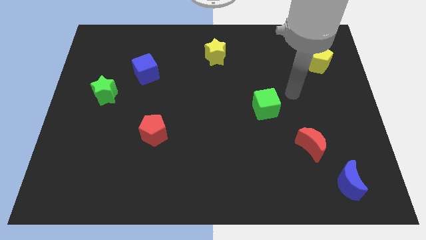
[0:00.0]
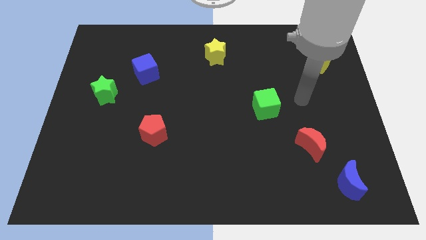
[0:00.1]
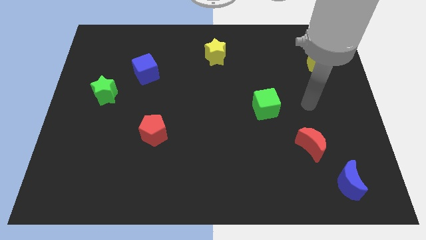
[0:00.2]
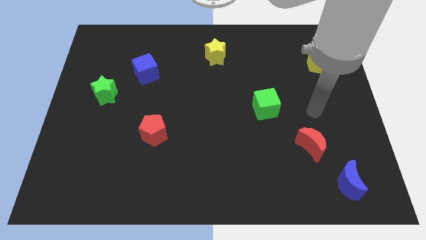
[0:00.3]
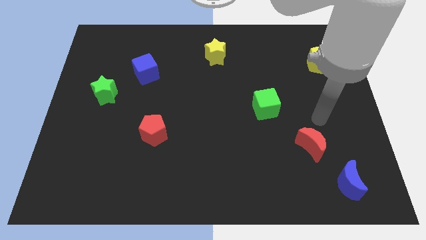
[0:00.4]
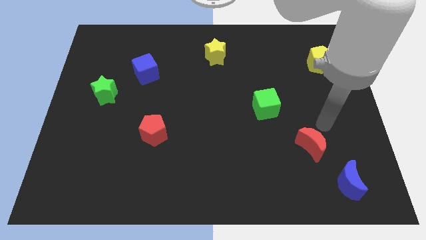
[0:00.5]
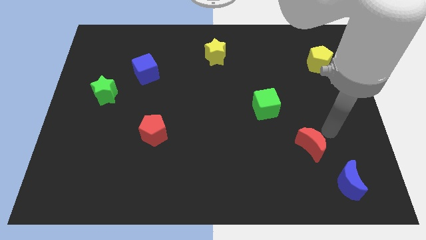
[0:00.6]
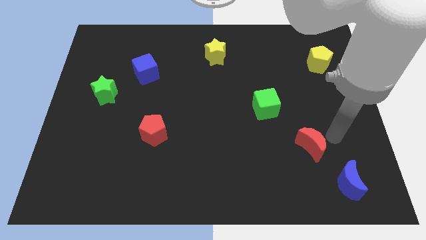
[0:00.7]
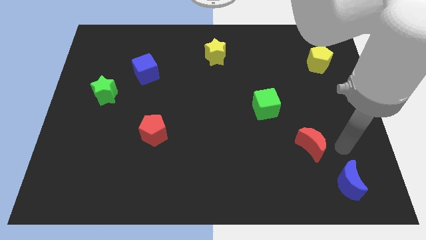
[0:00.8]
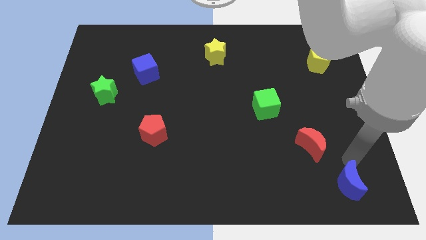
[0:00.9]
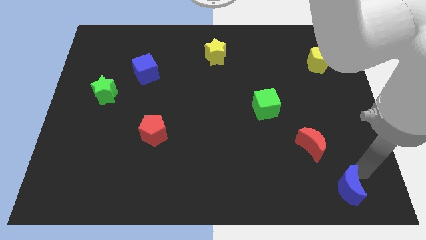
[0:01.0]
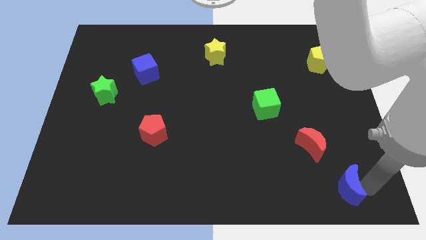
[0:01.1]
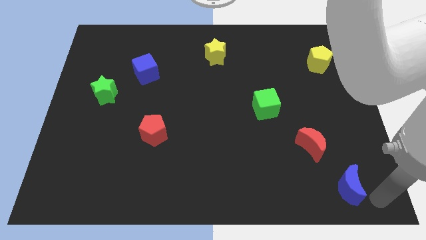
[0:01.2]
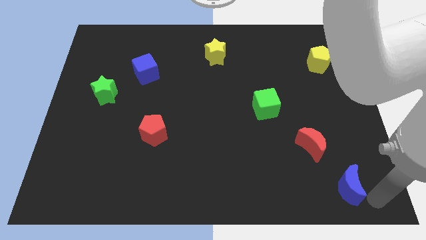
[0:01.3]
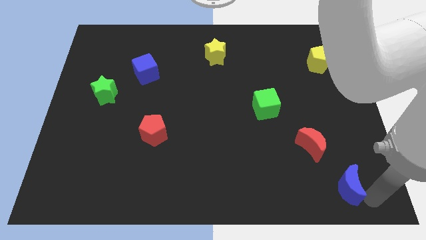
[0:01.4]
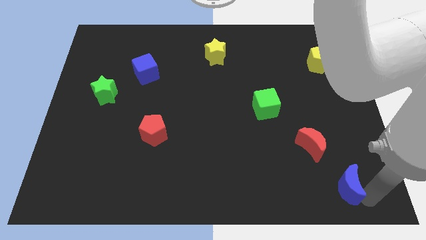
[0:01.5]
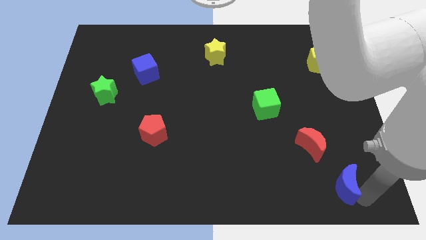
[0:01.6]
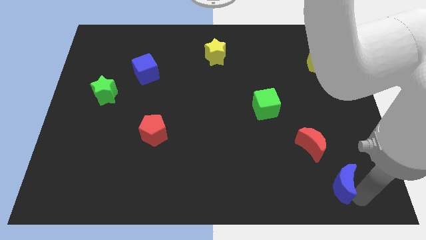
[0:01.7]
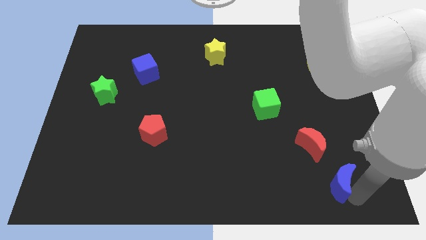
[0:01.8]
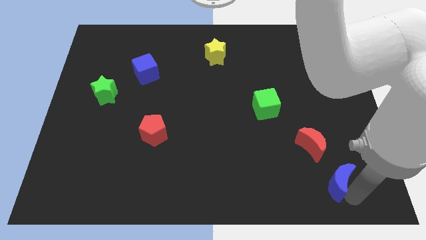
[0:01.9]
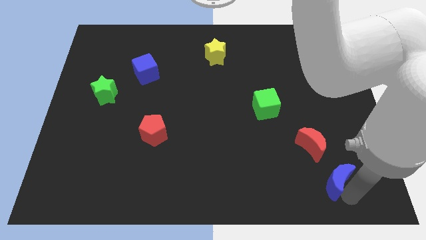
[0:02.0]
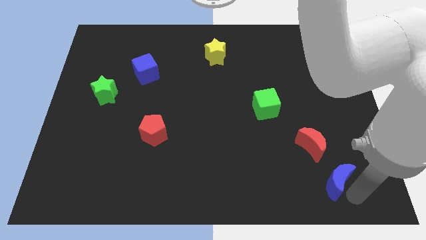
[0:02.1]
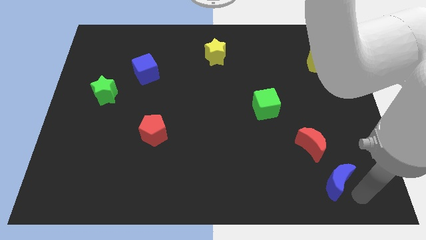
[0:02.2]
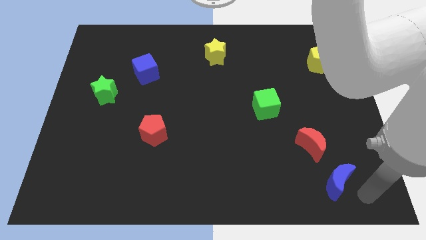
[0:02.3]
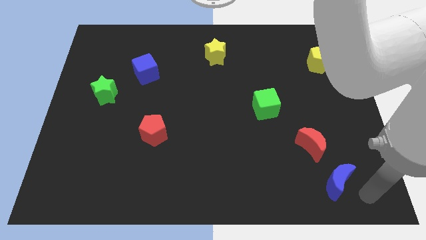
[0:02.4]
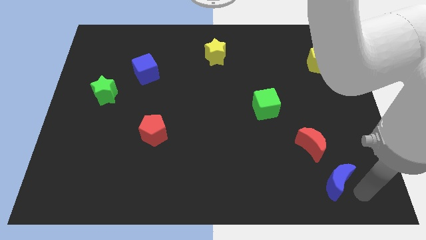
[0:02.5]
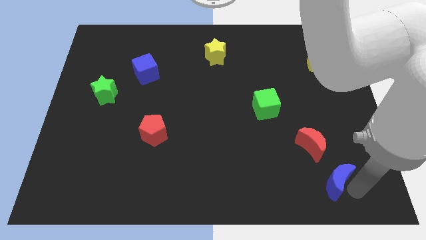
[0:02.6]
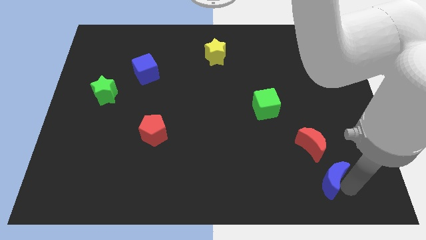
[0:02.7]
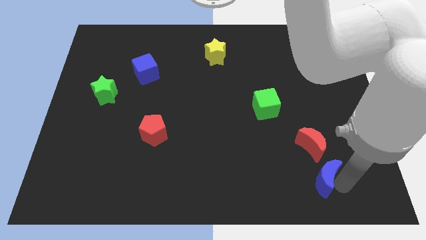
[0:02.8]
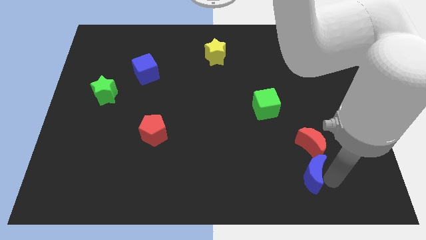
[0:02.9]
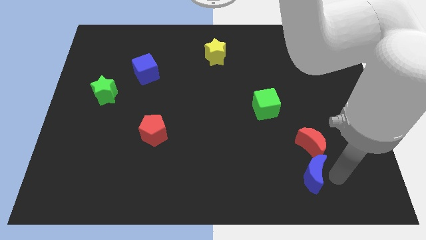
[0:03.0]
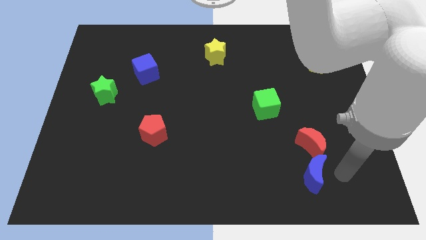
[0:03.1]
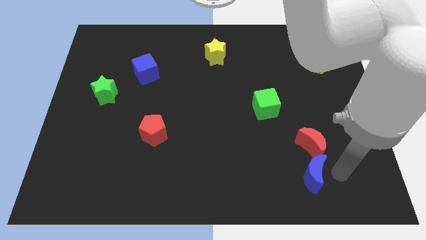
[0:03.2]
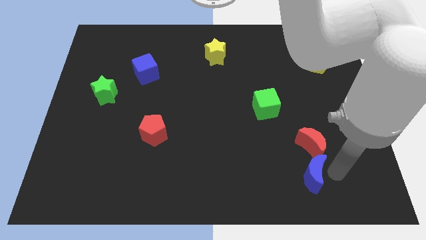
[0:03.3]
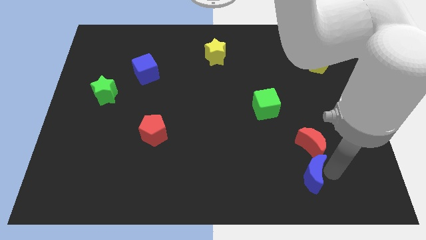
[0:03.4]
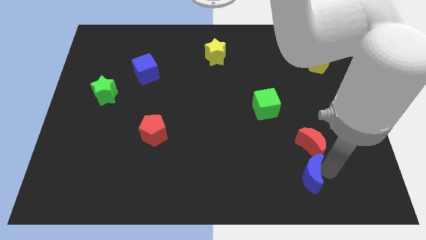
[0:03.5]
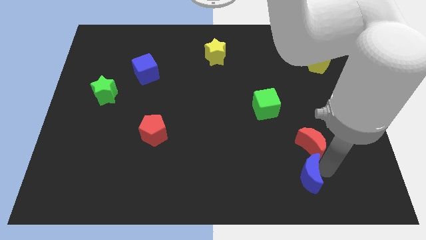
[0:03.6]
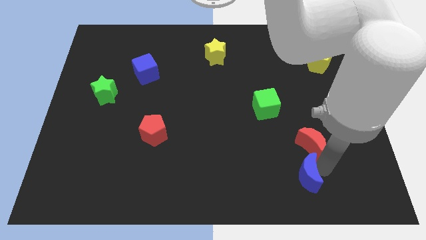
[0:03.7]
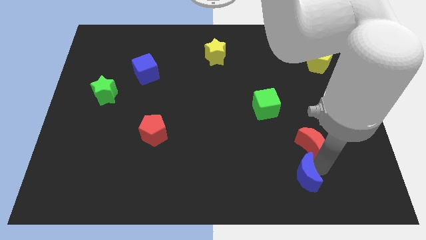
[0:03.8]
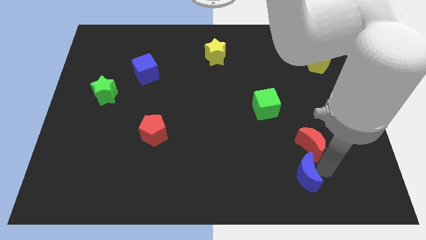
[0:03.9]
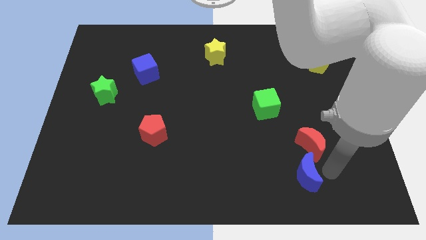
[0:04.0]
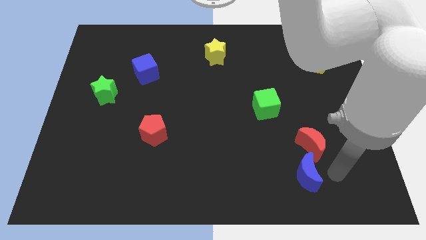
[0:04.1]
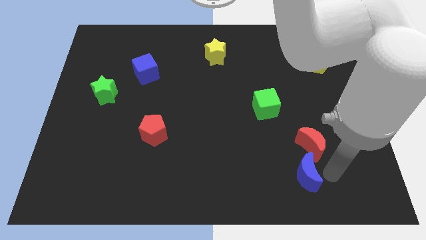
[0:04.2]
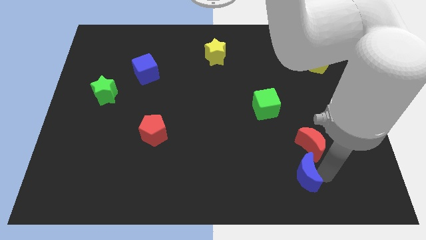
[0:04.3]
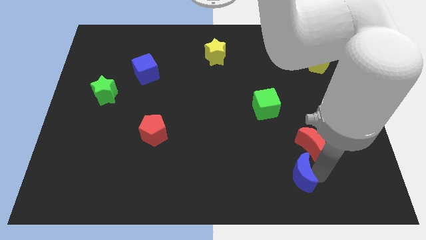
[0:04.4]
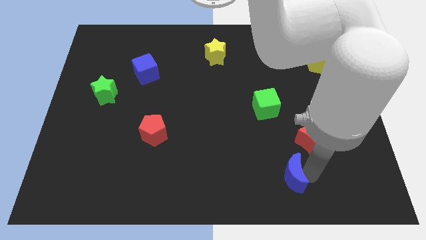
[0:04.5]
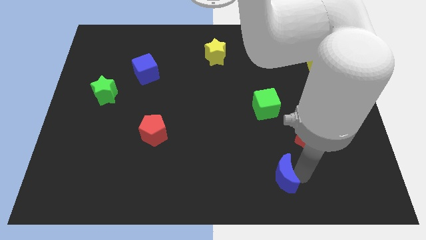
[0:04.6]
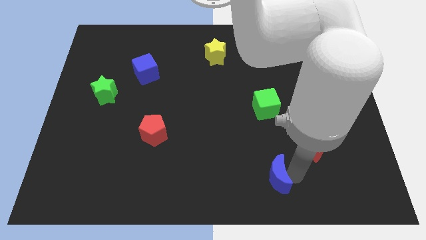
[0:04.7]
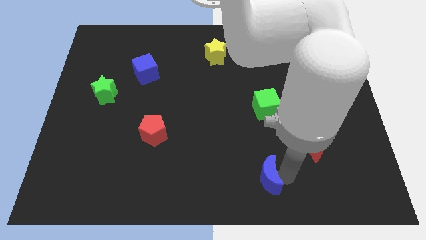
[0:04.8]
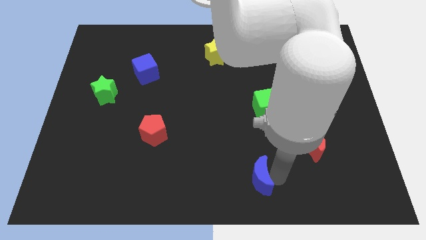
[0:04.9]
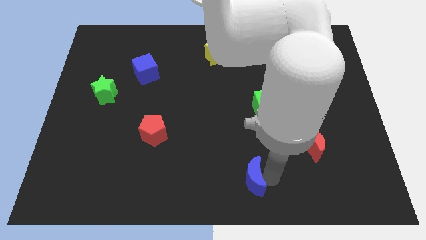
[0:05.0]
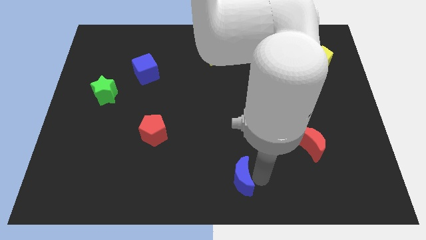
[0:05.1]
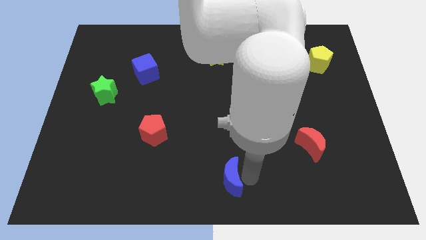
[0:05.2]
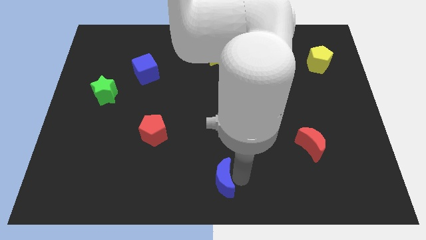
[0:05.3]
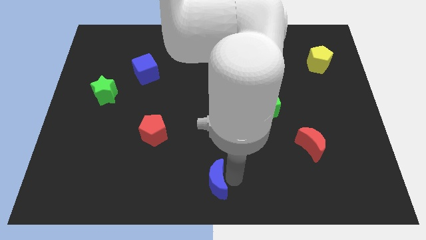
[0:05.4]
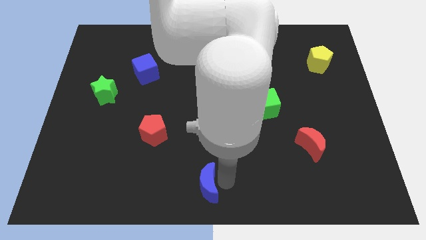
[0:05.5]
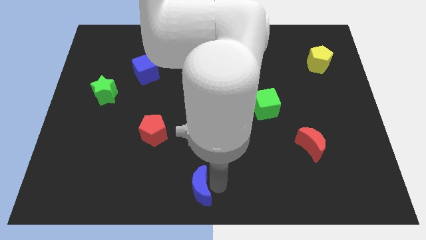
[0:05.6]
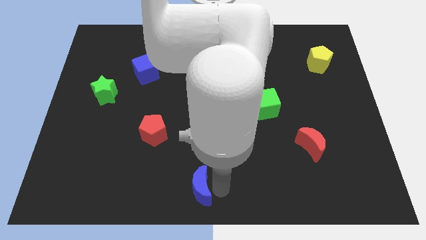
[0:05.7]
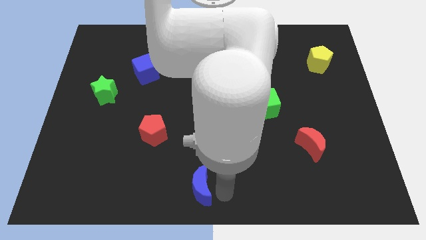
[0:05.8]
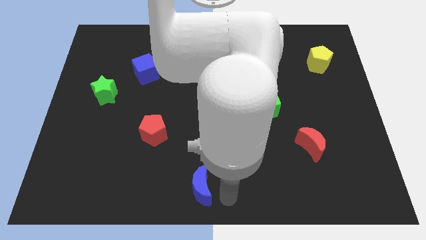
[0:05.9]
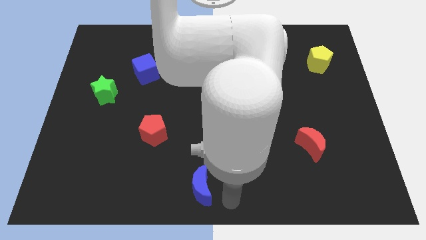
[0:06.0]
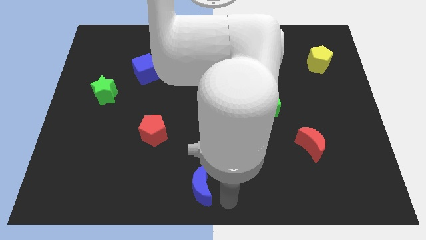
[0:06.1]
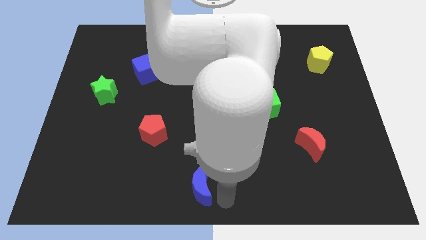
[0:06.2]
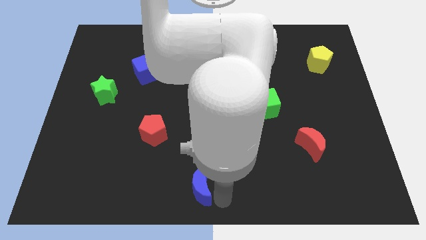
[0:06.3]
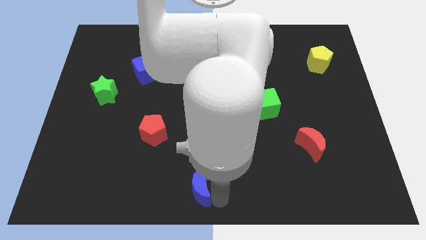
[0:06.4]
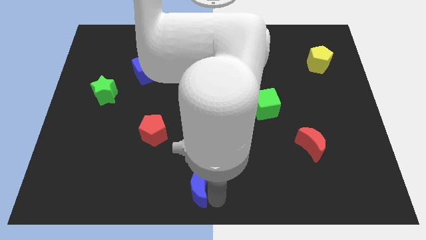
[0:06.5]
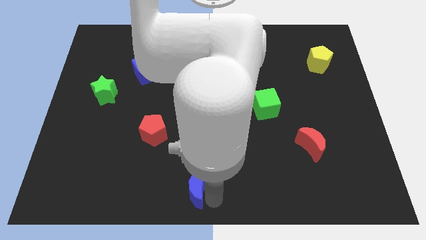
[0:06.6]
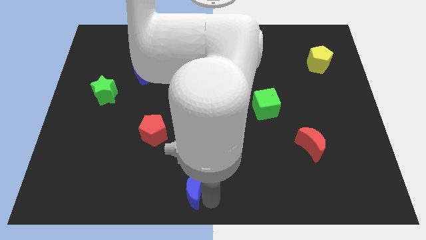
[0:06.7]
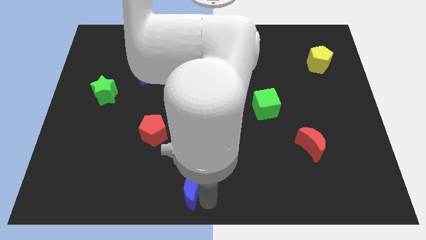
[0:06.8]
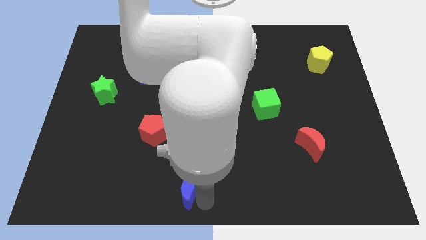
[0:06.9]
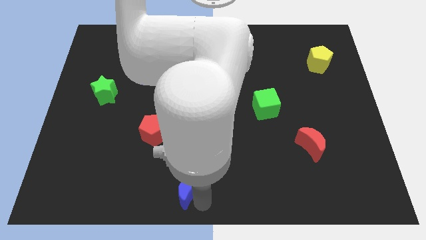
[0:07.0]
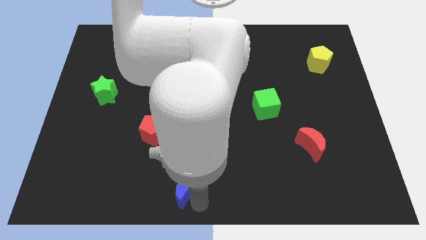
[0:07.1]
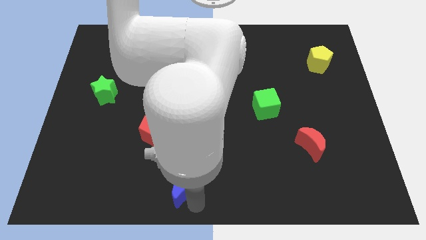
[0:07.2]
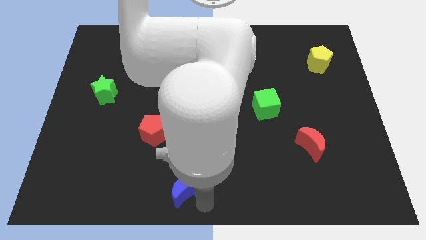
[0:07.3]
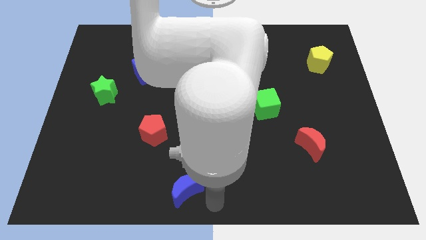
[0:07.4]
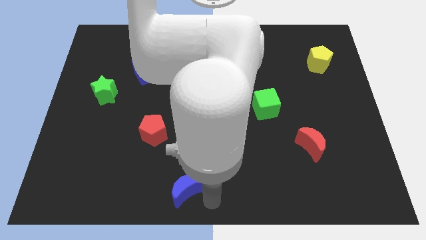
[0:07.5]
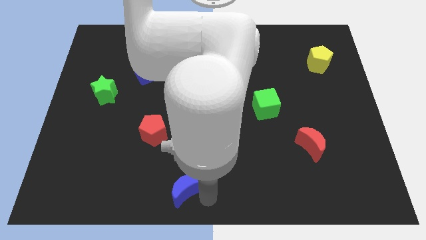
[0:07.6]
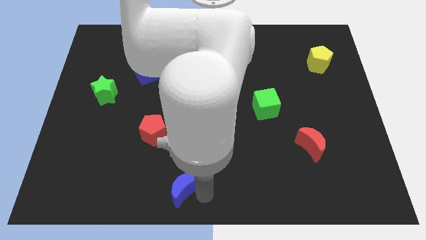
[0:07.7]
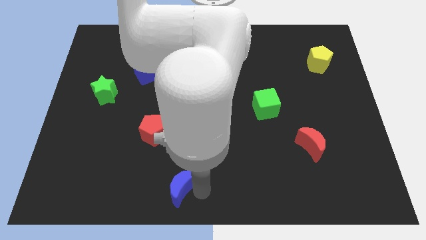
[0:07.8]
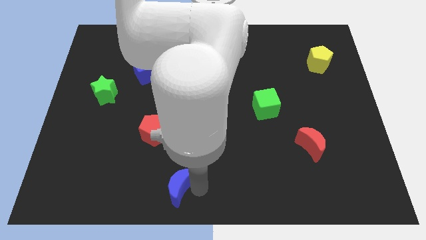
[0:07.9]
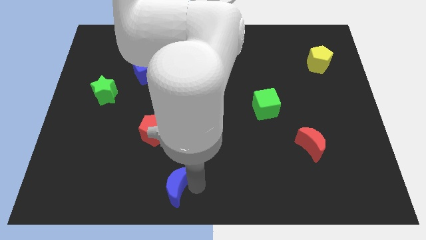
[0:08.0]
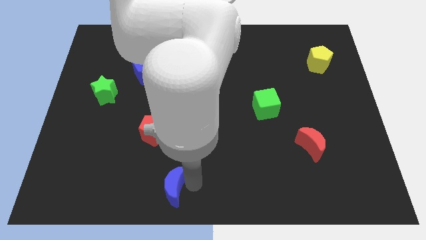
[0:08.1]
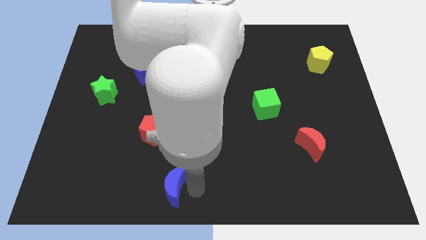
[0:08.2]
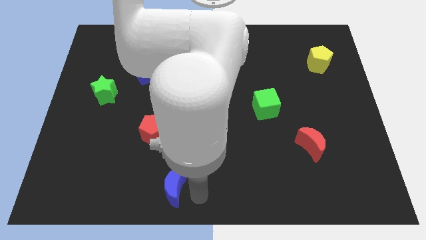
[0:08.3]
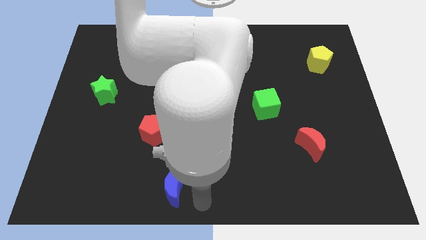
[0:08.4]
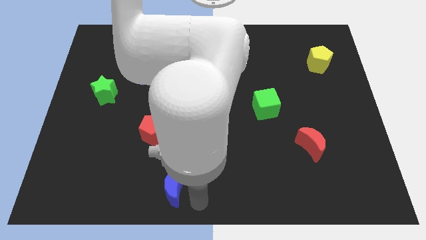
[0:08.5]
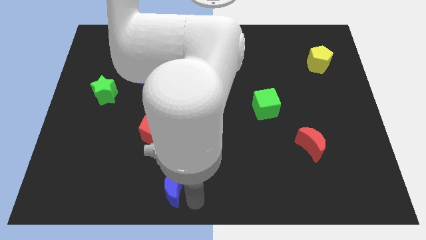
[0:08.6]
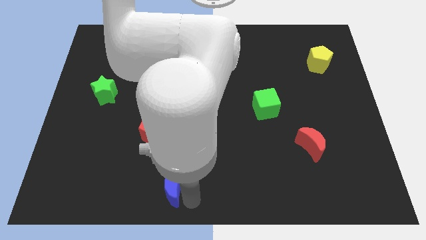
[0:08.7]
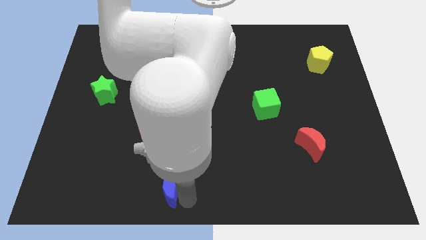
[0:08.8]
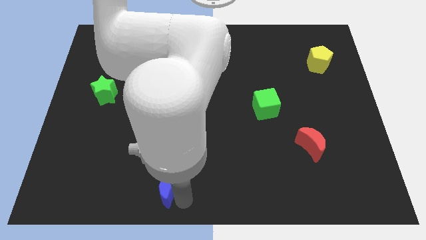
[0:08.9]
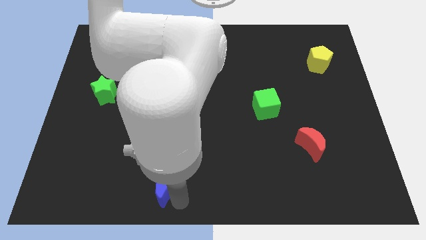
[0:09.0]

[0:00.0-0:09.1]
move the blue moon to the bottom of the red pentagon
